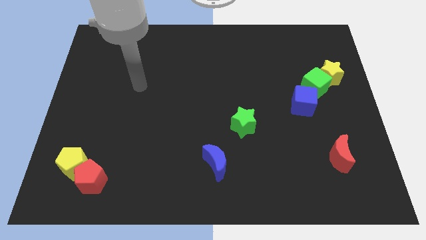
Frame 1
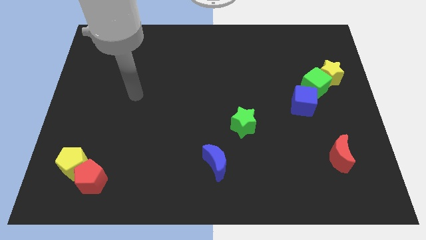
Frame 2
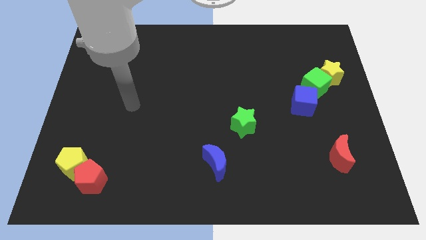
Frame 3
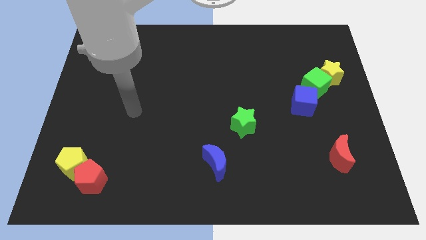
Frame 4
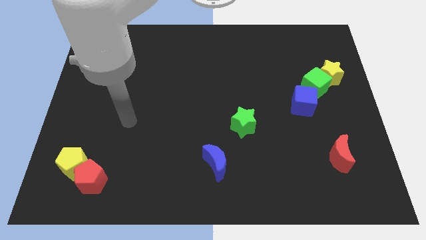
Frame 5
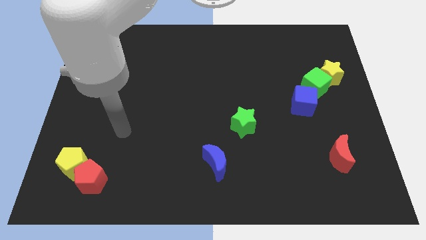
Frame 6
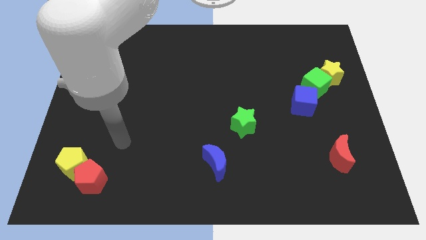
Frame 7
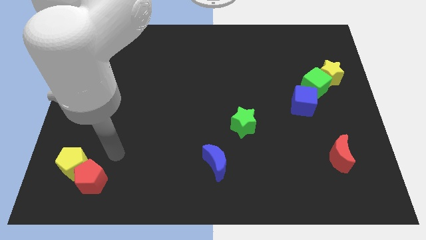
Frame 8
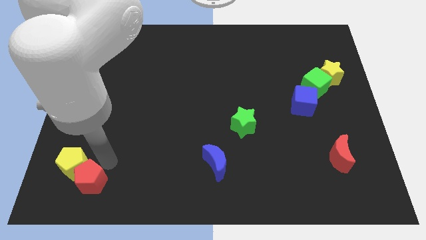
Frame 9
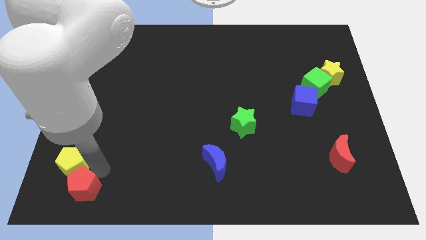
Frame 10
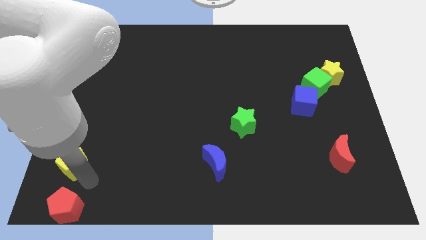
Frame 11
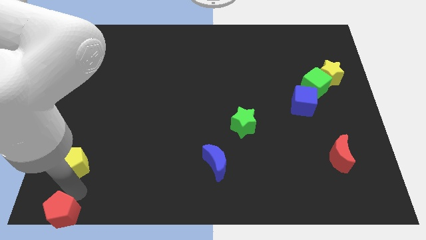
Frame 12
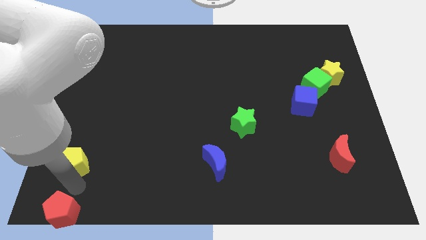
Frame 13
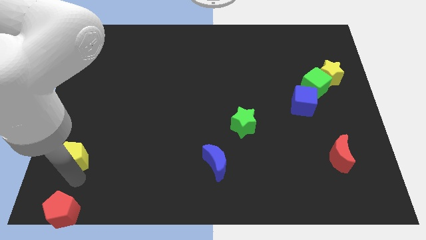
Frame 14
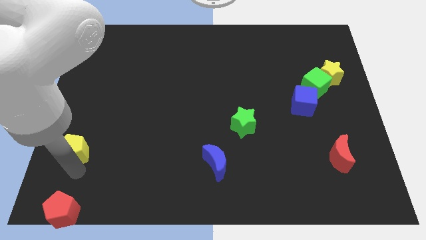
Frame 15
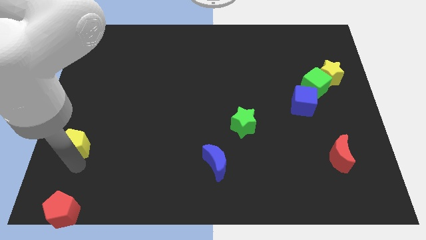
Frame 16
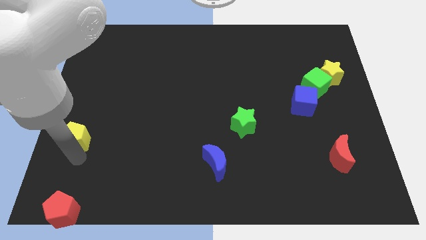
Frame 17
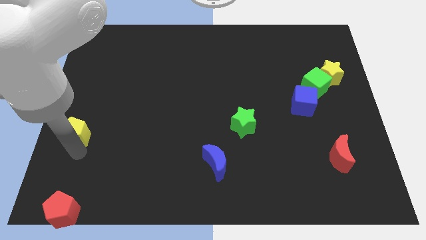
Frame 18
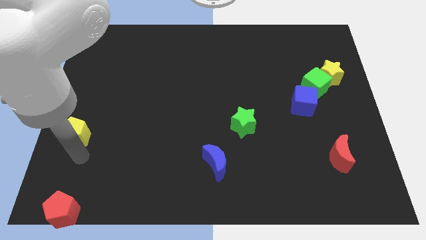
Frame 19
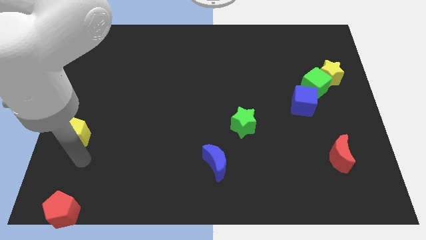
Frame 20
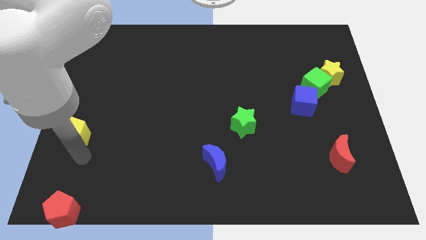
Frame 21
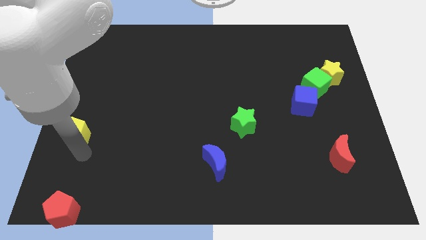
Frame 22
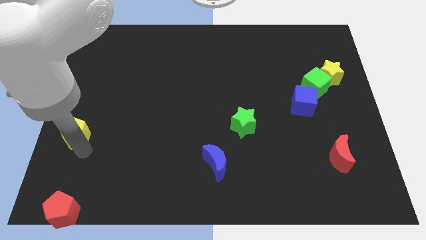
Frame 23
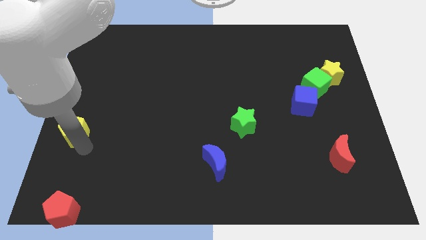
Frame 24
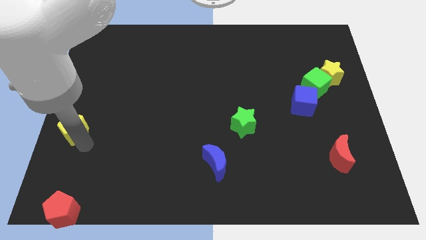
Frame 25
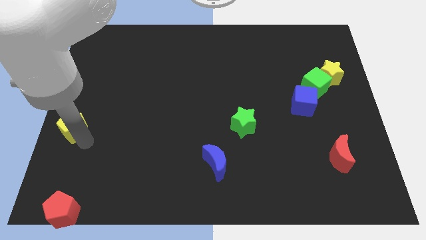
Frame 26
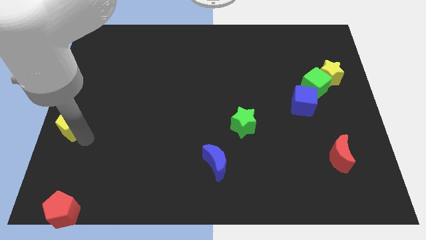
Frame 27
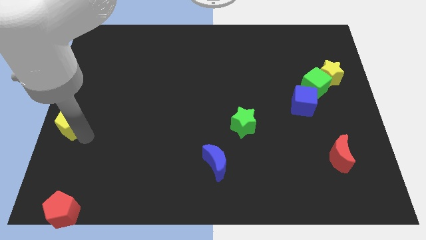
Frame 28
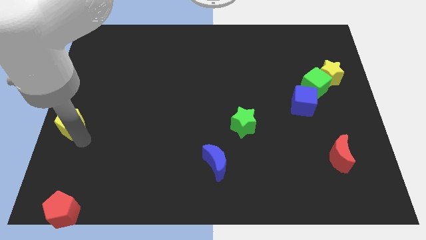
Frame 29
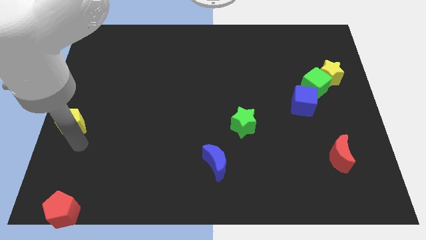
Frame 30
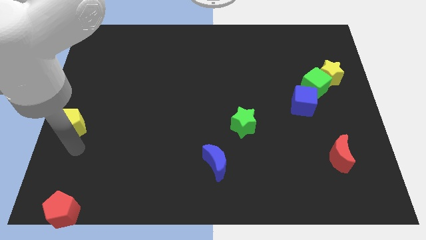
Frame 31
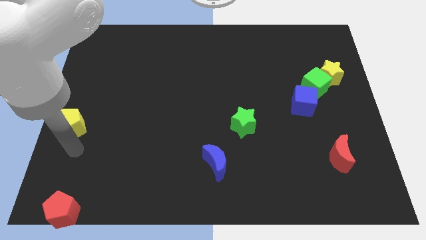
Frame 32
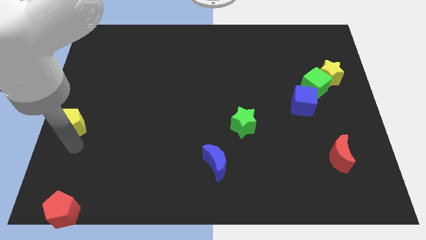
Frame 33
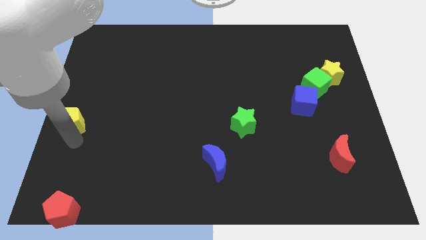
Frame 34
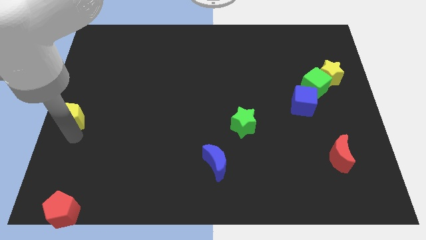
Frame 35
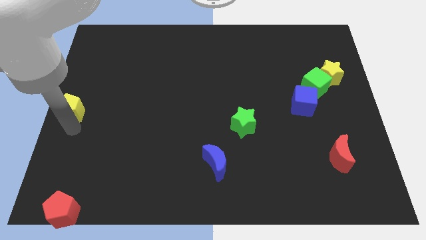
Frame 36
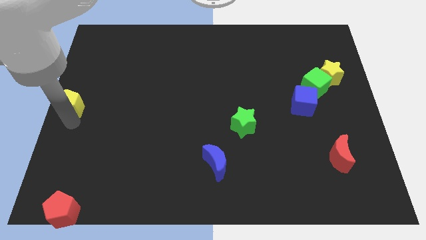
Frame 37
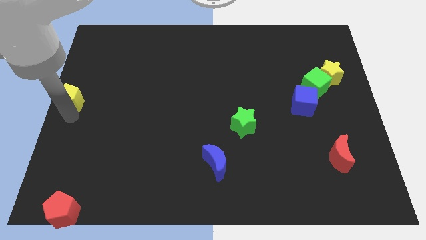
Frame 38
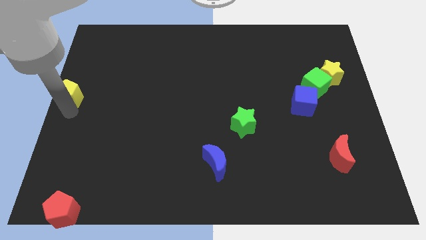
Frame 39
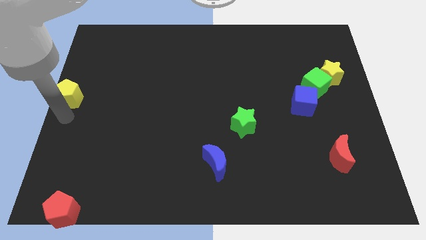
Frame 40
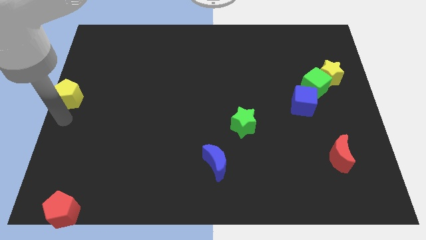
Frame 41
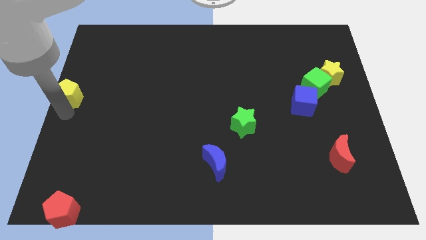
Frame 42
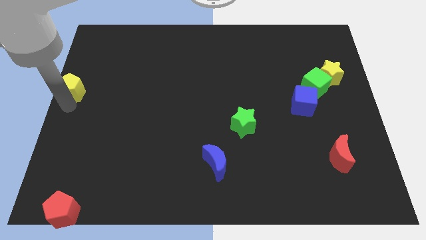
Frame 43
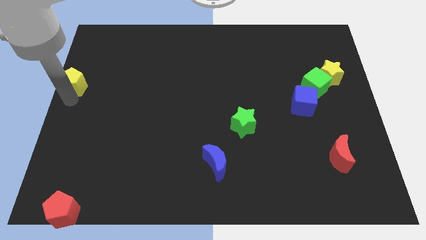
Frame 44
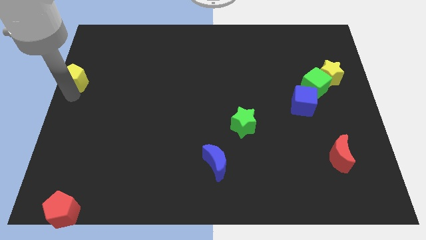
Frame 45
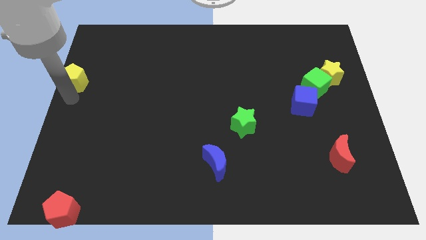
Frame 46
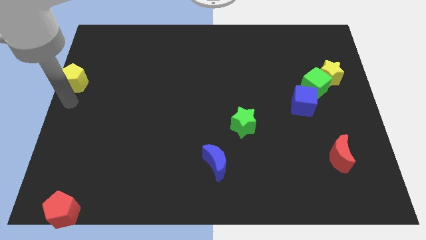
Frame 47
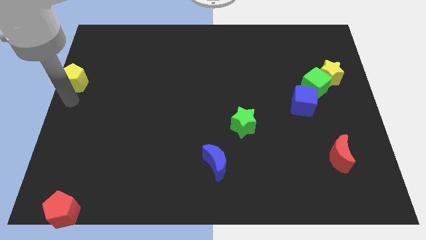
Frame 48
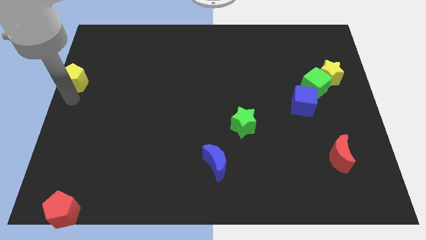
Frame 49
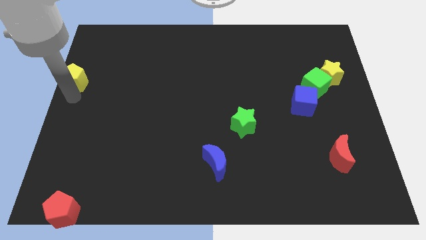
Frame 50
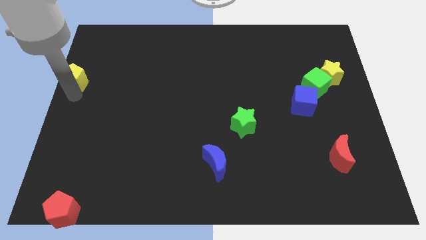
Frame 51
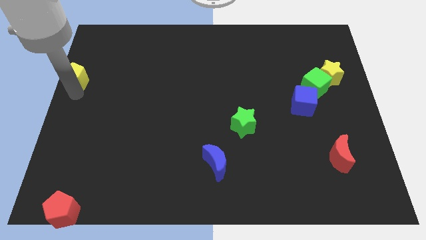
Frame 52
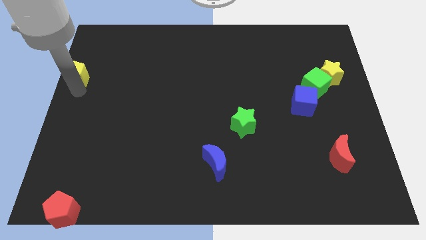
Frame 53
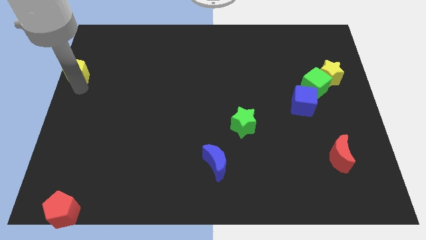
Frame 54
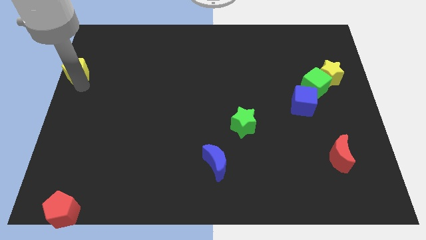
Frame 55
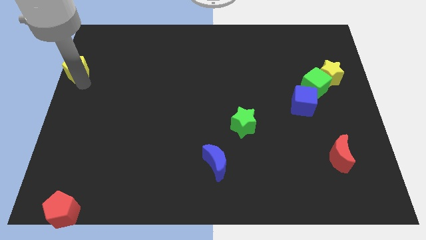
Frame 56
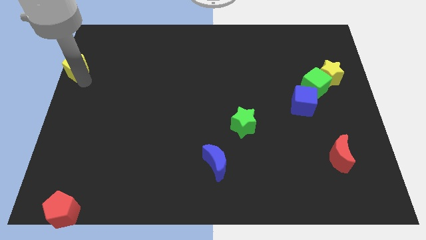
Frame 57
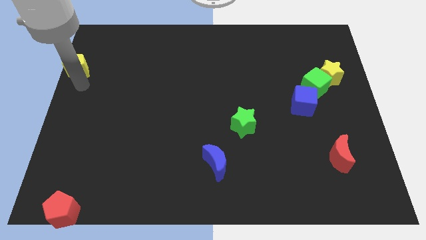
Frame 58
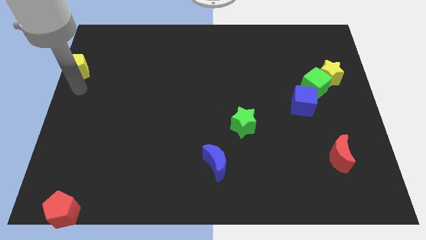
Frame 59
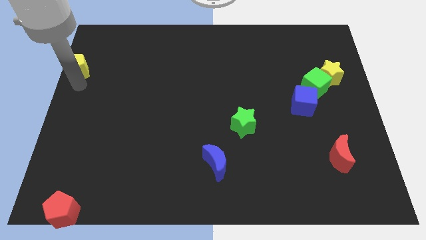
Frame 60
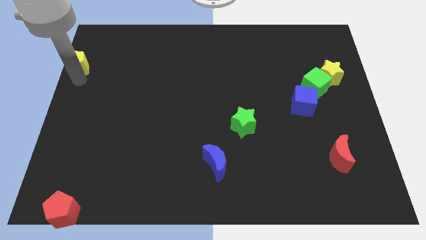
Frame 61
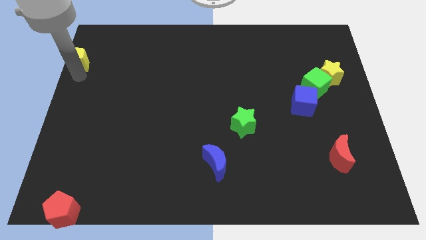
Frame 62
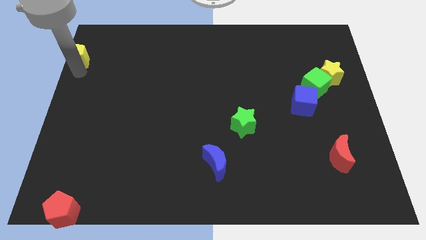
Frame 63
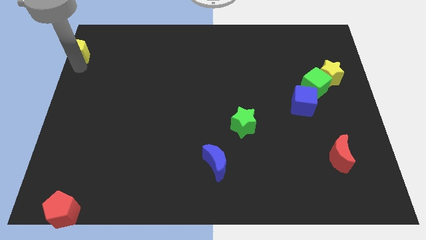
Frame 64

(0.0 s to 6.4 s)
slide the yellow pentagon to the top left of the board
